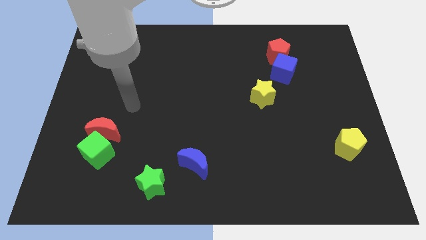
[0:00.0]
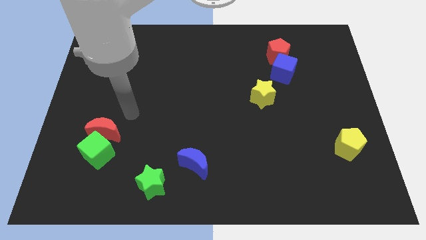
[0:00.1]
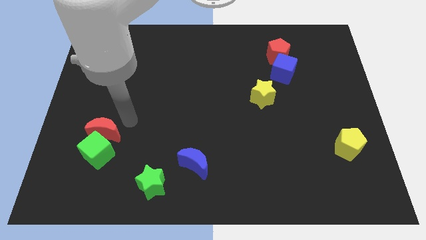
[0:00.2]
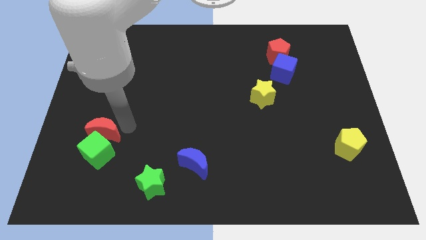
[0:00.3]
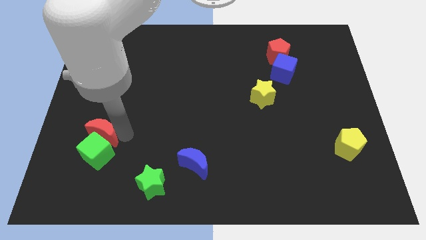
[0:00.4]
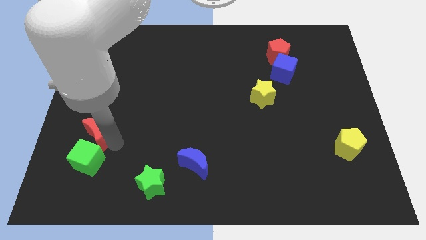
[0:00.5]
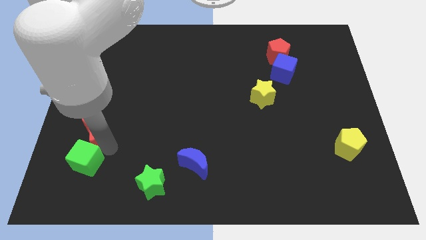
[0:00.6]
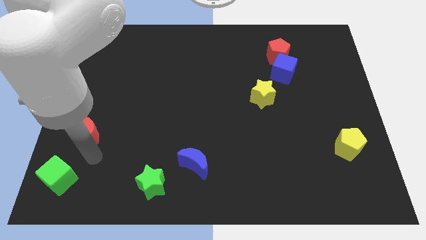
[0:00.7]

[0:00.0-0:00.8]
move the red moon away from the green cube

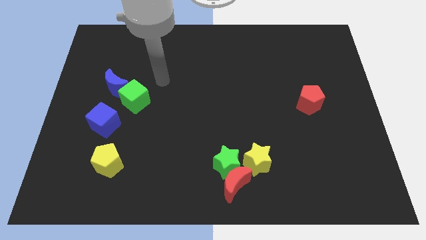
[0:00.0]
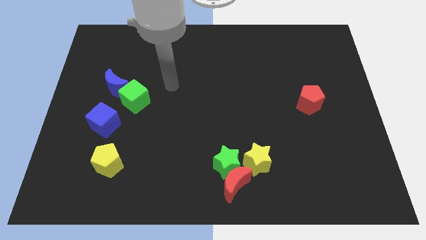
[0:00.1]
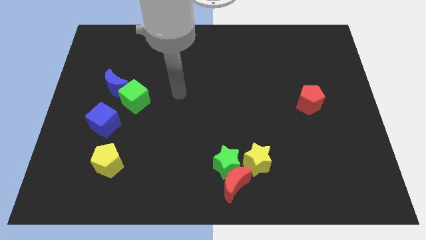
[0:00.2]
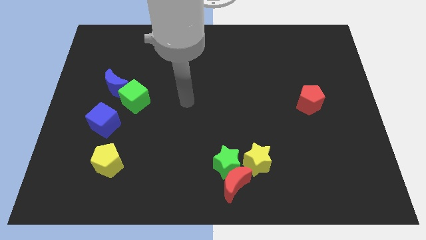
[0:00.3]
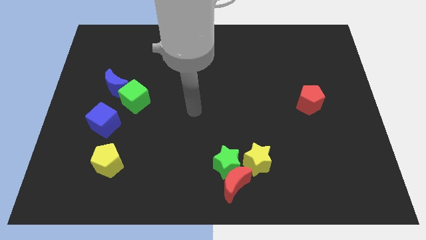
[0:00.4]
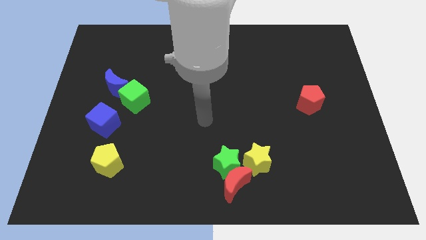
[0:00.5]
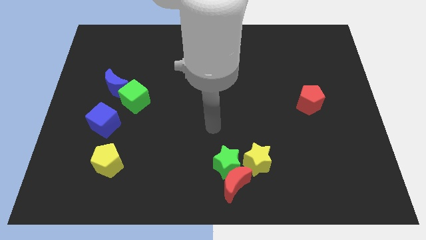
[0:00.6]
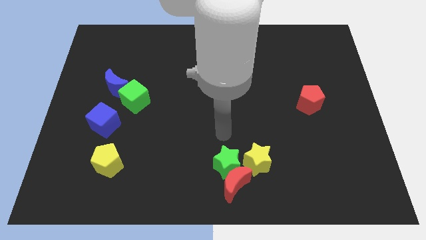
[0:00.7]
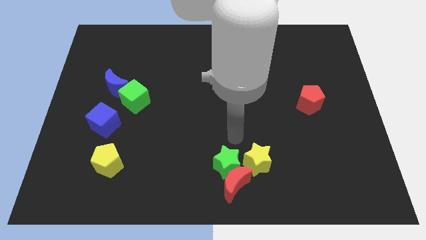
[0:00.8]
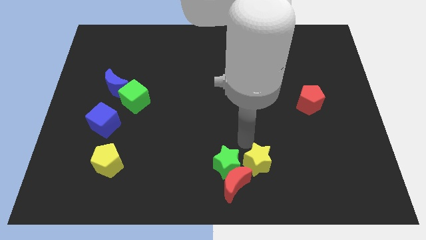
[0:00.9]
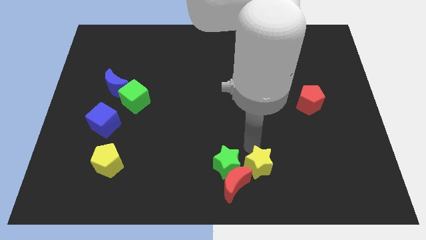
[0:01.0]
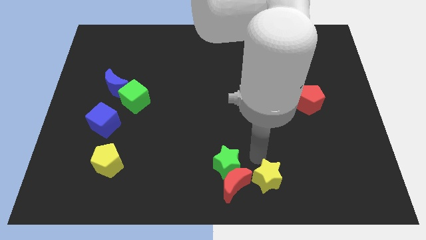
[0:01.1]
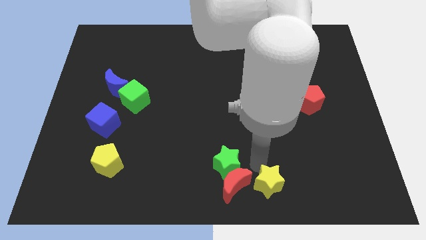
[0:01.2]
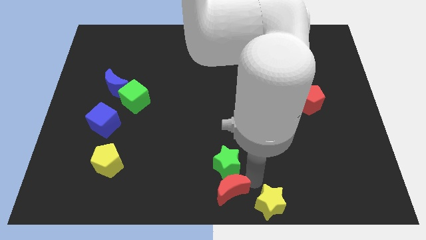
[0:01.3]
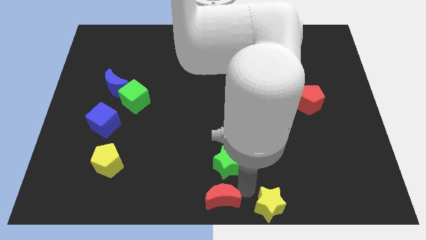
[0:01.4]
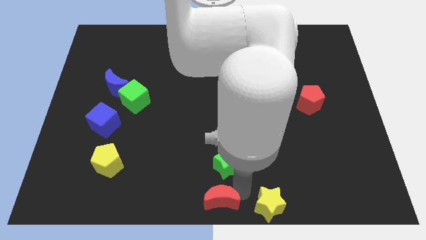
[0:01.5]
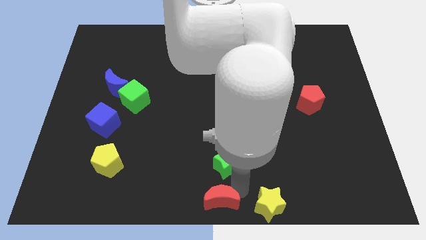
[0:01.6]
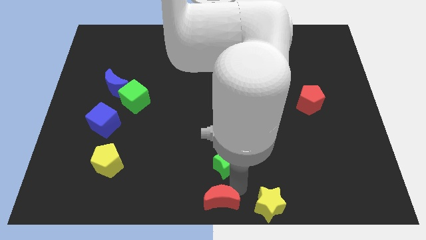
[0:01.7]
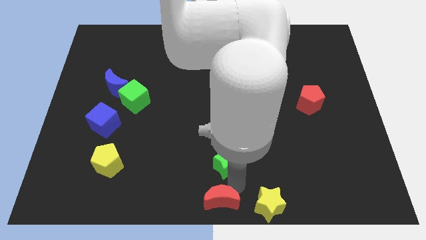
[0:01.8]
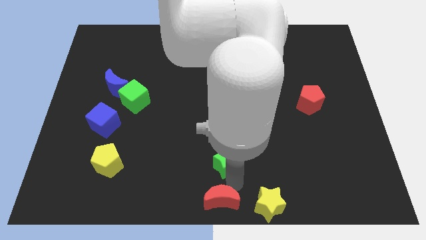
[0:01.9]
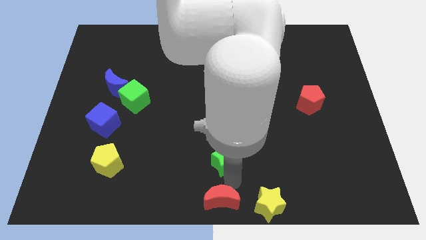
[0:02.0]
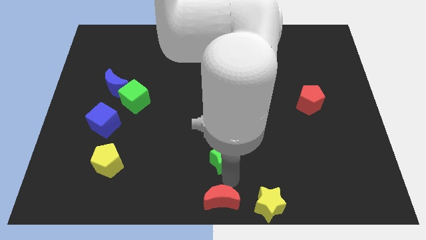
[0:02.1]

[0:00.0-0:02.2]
separate the green star from the red moon and yellow star

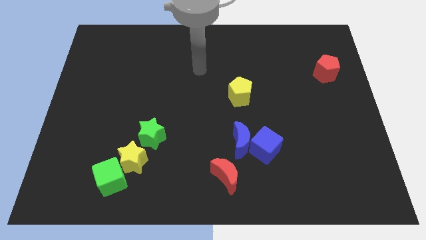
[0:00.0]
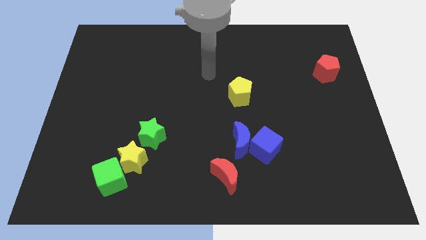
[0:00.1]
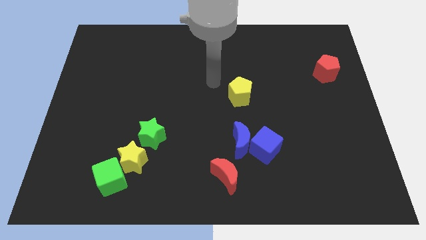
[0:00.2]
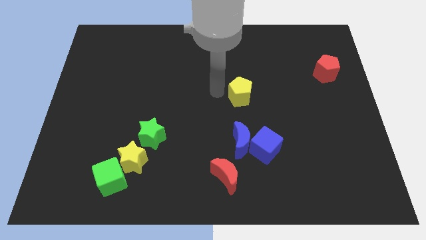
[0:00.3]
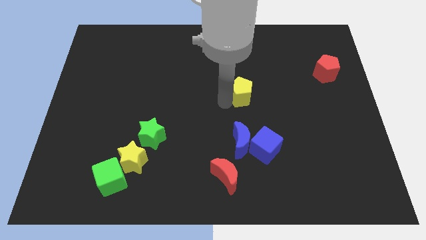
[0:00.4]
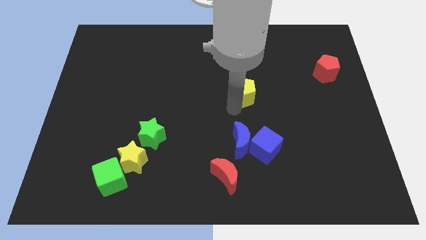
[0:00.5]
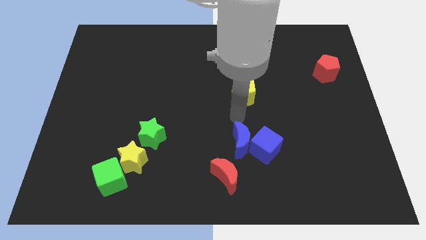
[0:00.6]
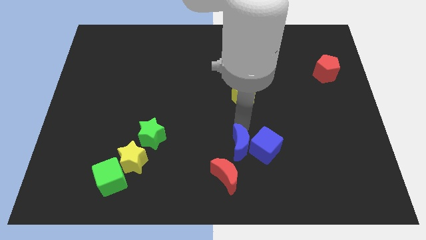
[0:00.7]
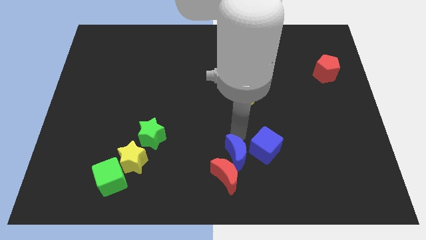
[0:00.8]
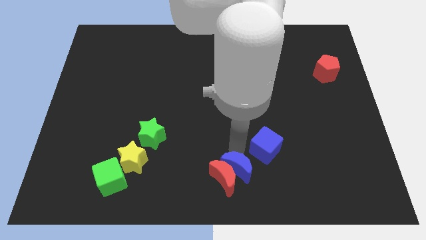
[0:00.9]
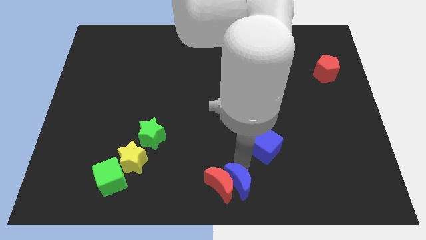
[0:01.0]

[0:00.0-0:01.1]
pull the blue cube apart from the blue moon

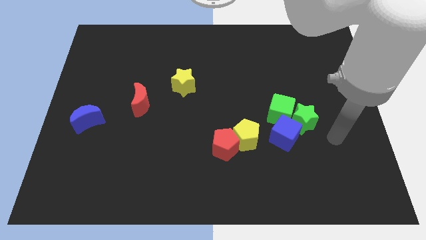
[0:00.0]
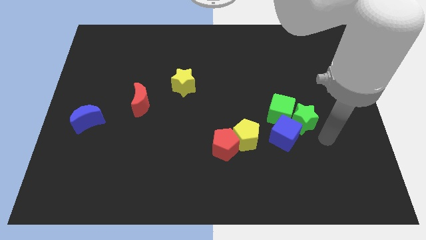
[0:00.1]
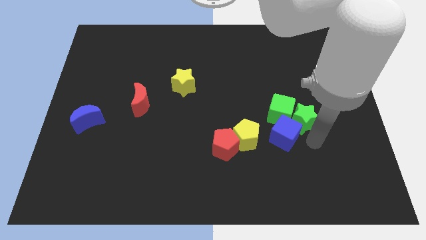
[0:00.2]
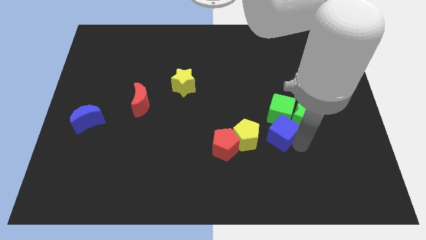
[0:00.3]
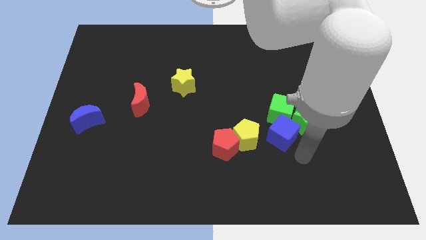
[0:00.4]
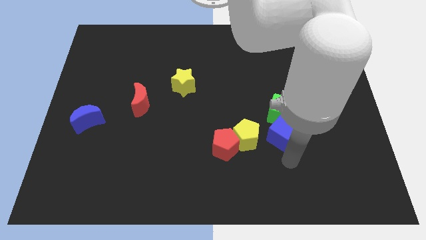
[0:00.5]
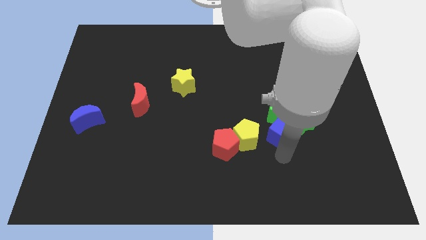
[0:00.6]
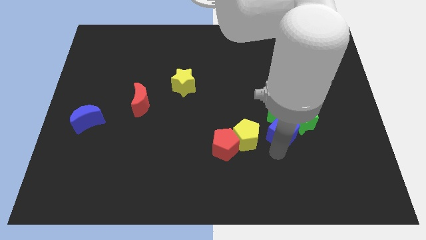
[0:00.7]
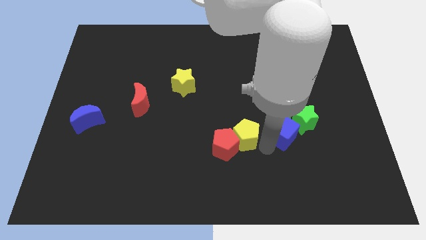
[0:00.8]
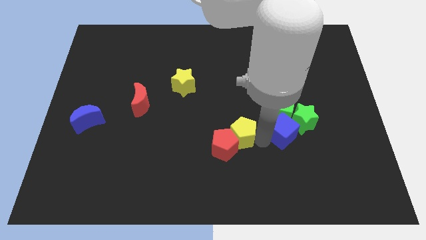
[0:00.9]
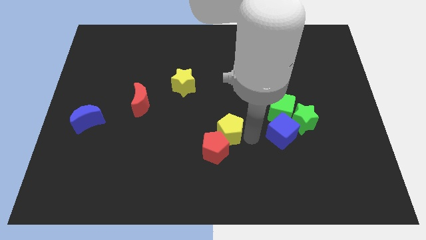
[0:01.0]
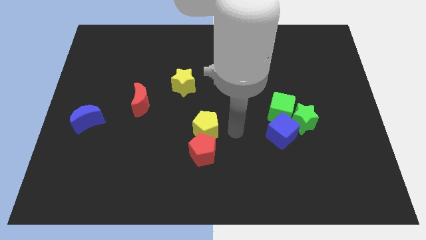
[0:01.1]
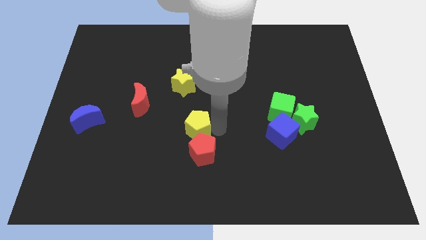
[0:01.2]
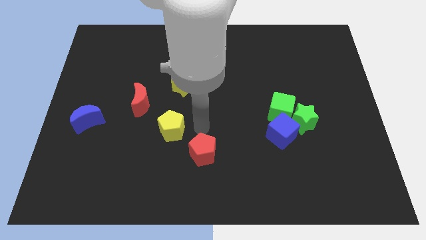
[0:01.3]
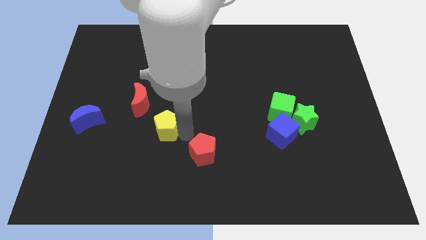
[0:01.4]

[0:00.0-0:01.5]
separate the red pentagon from the yellow pentagon

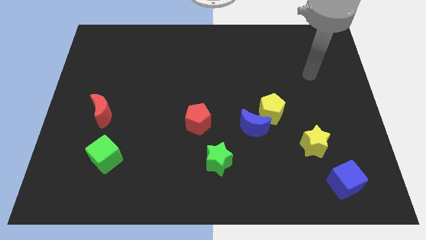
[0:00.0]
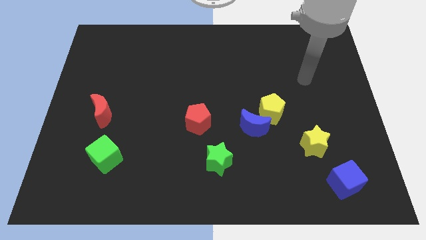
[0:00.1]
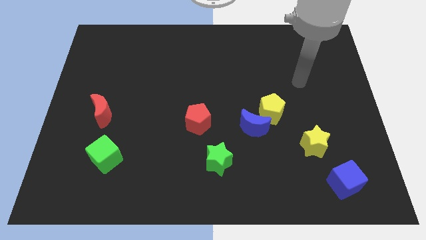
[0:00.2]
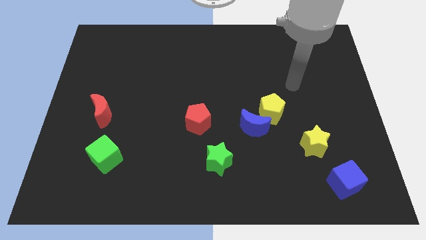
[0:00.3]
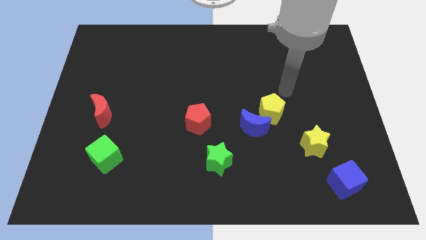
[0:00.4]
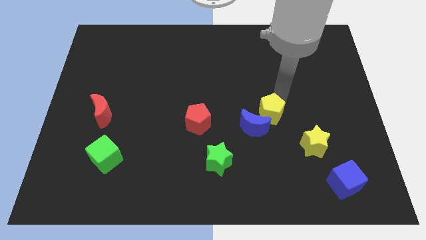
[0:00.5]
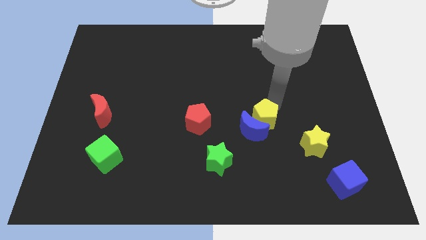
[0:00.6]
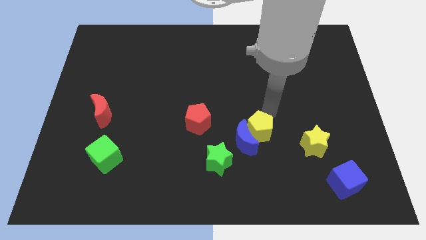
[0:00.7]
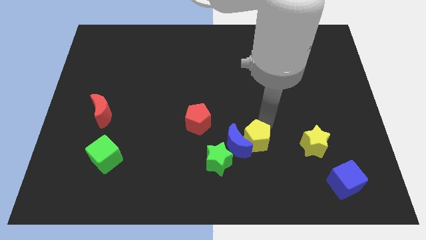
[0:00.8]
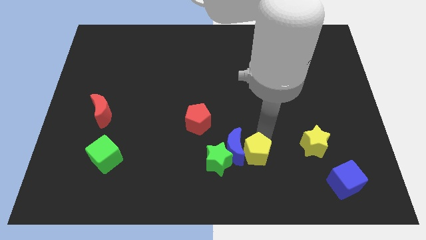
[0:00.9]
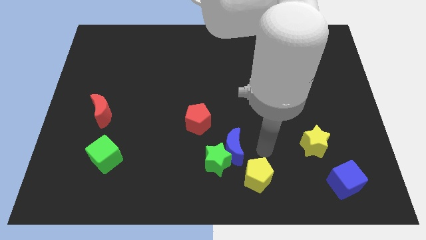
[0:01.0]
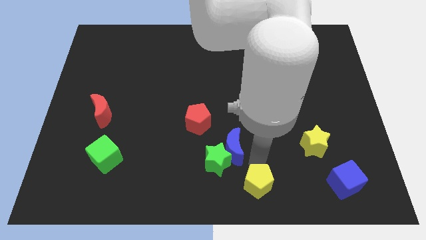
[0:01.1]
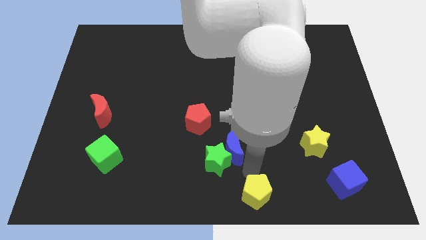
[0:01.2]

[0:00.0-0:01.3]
separate the blue moon from the yellow pentagon

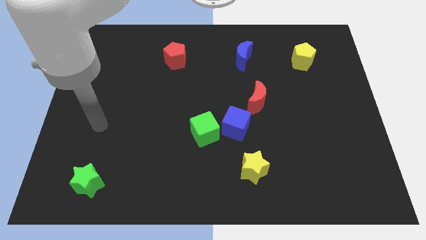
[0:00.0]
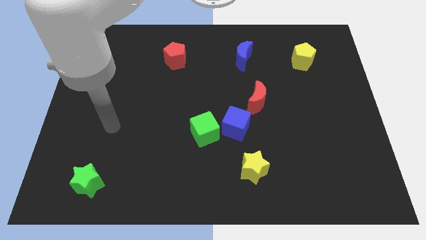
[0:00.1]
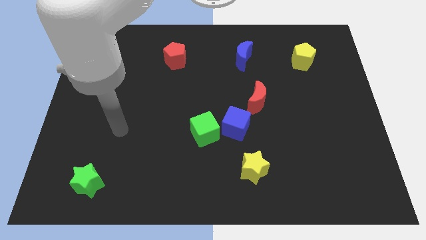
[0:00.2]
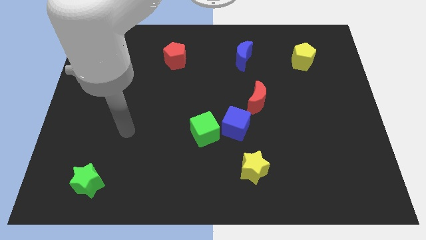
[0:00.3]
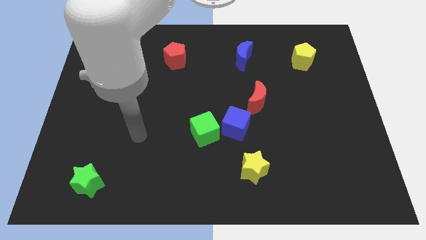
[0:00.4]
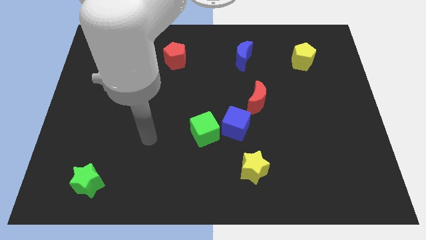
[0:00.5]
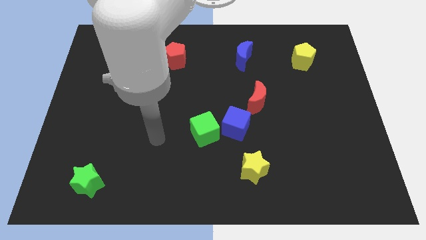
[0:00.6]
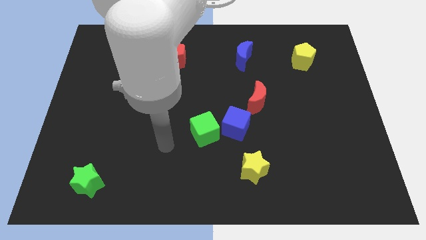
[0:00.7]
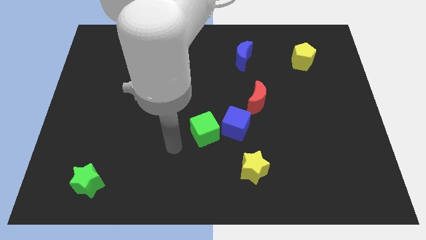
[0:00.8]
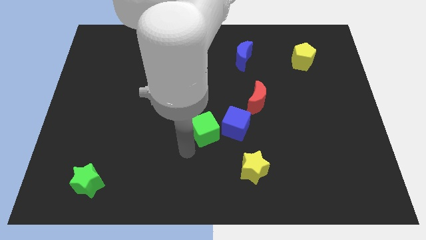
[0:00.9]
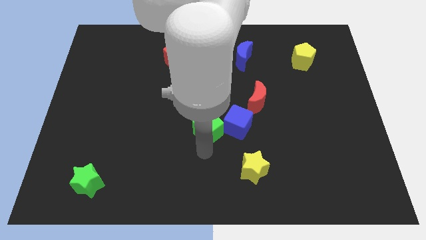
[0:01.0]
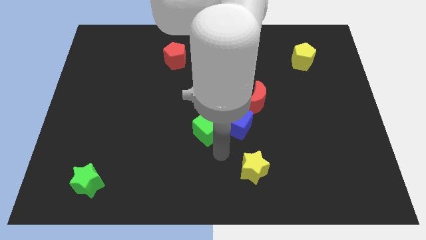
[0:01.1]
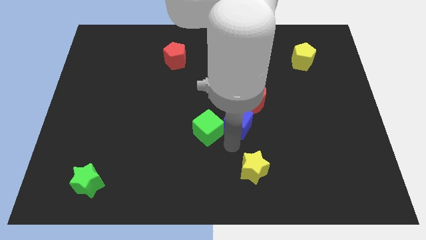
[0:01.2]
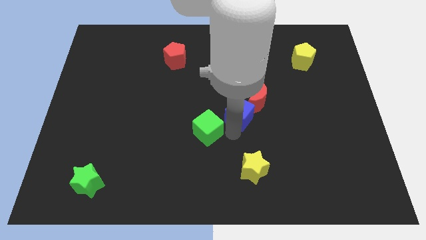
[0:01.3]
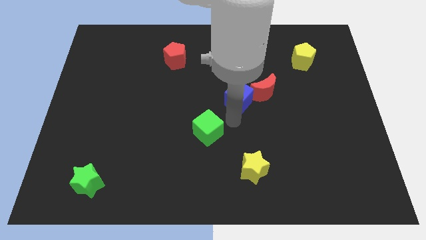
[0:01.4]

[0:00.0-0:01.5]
move the green cube away from the blue cube

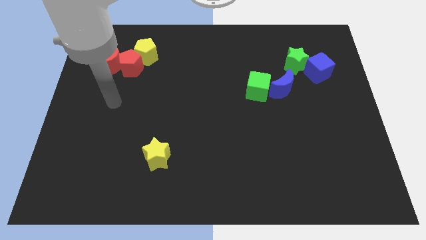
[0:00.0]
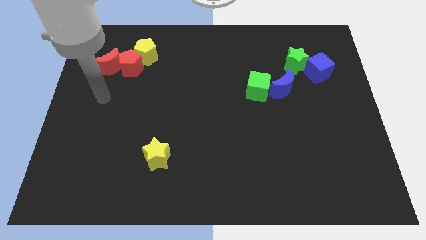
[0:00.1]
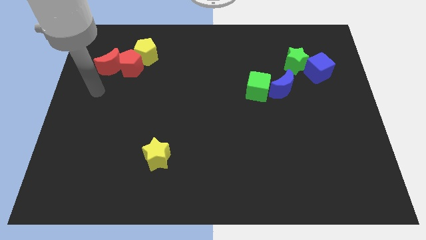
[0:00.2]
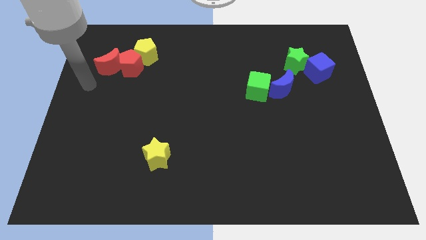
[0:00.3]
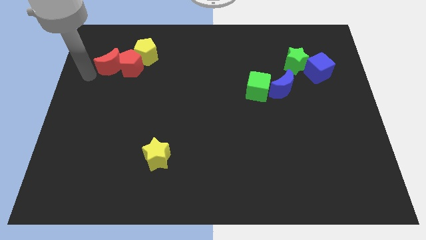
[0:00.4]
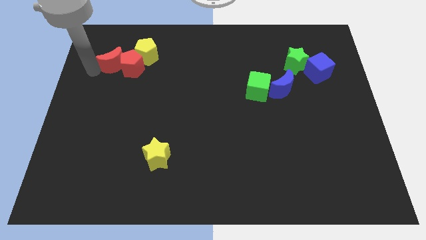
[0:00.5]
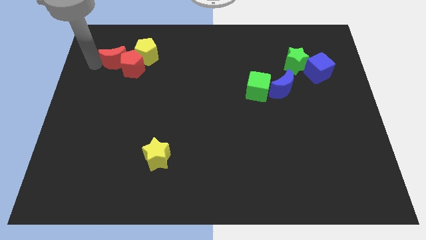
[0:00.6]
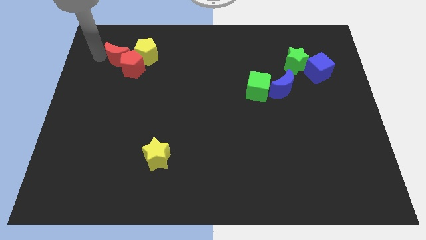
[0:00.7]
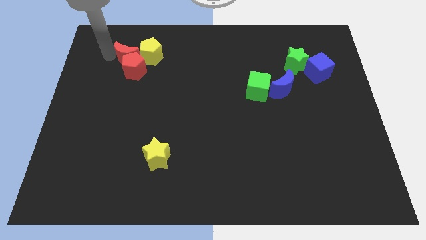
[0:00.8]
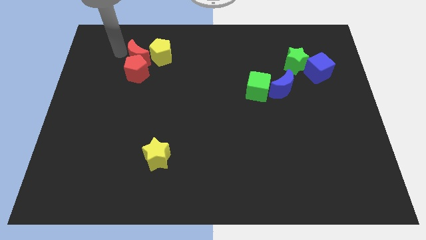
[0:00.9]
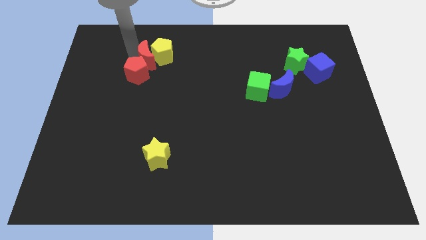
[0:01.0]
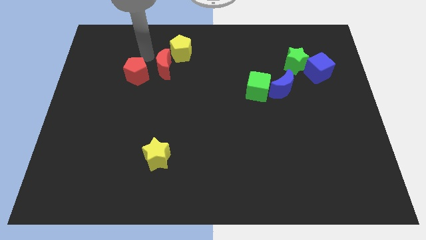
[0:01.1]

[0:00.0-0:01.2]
pull the red pentagon apart from the red moon and yellow pentagon
